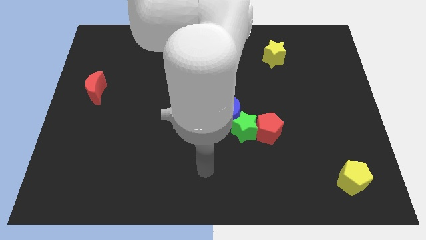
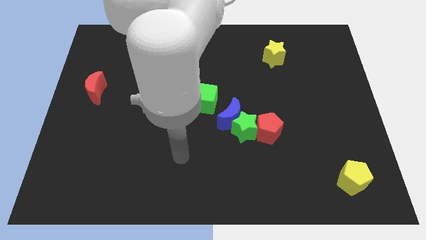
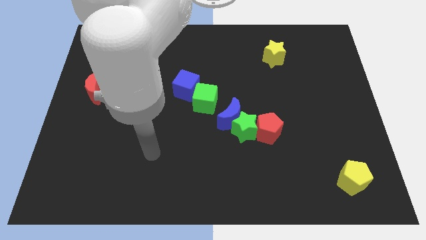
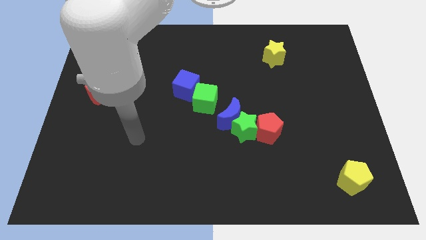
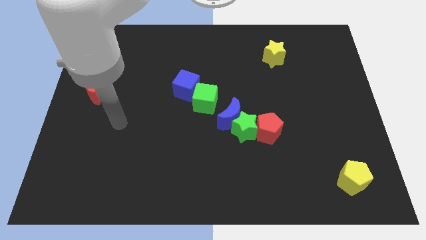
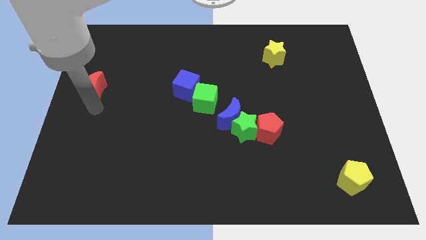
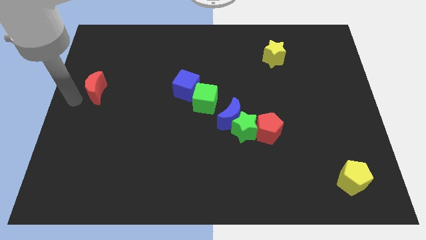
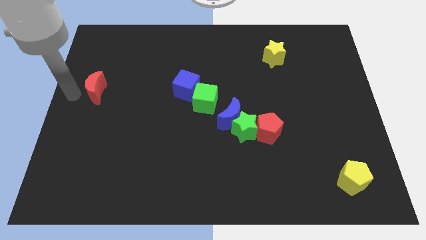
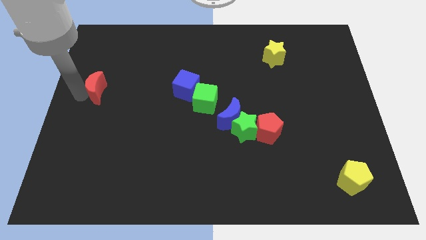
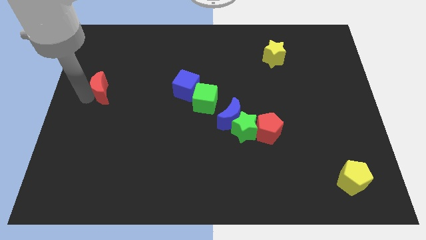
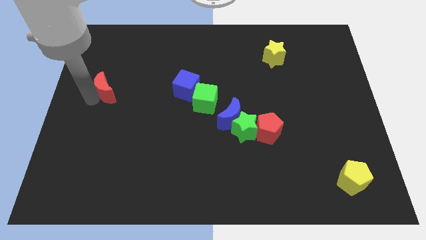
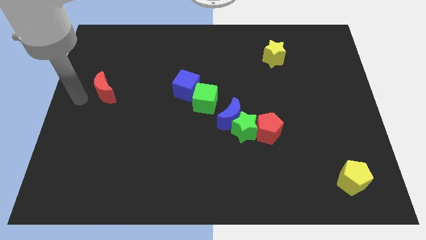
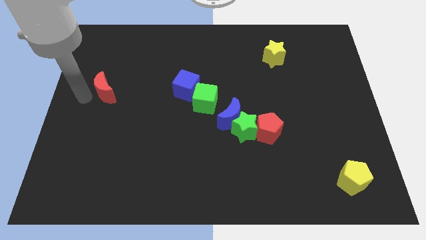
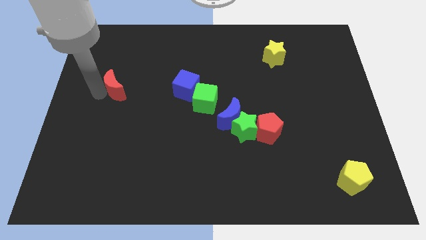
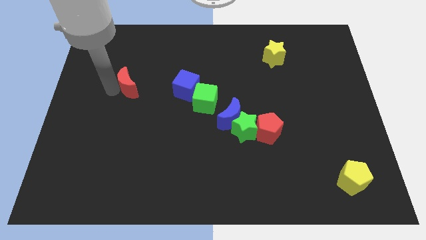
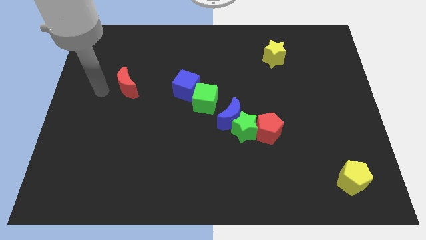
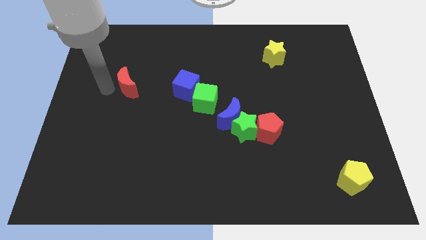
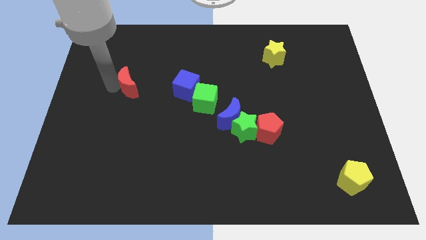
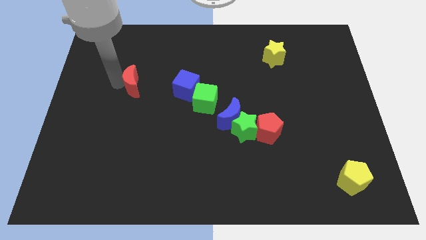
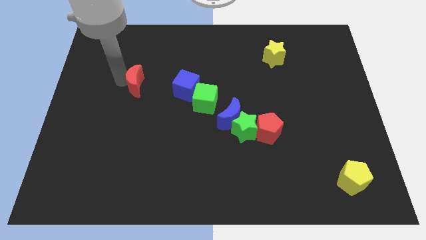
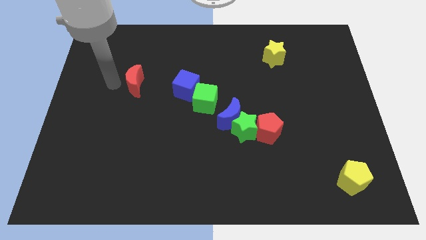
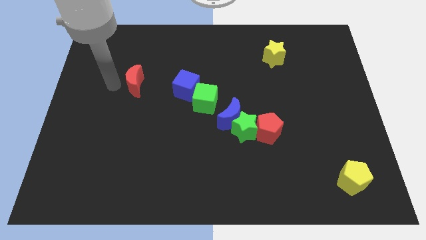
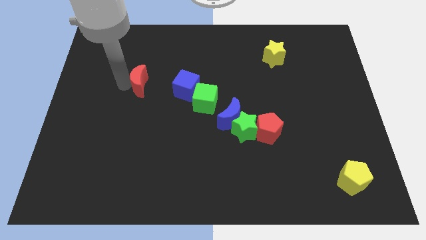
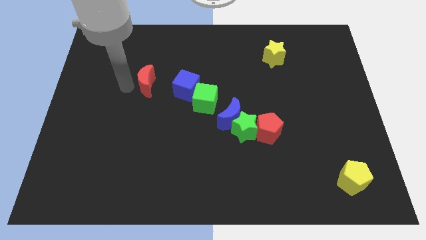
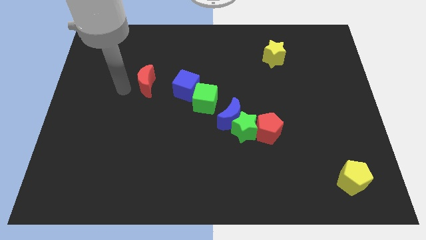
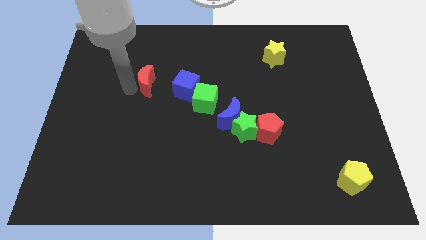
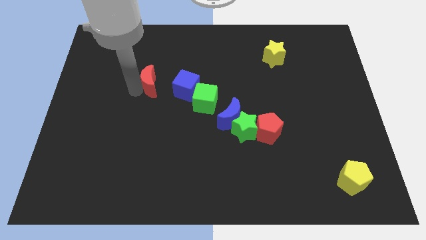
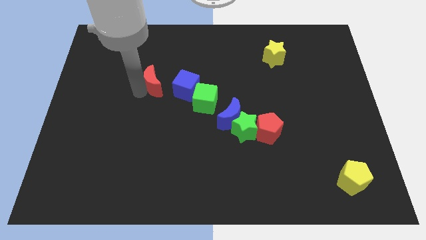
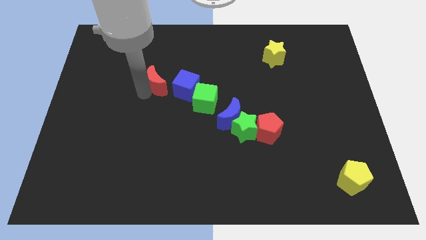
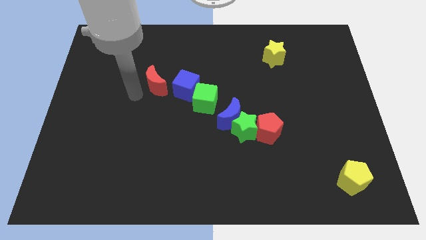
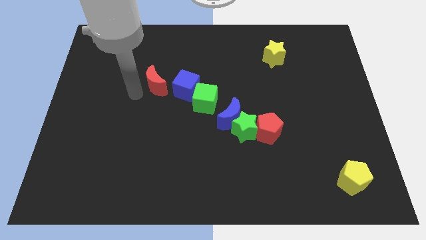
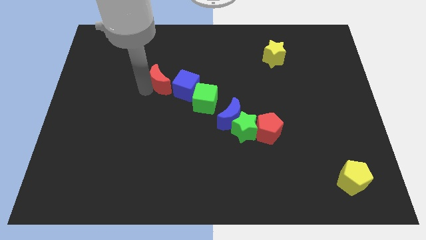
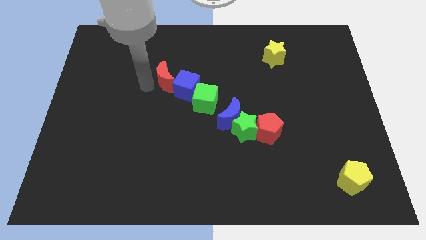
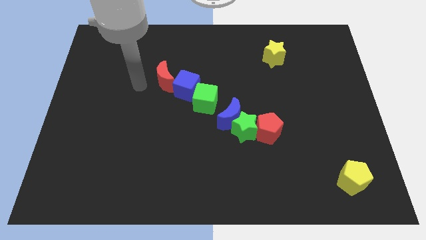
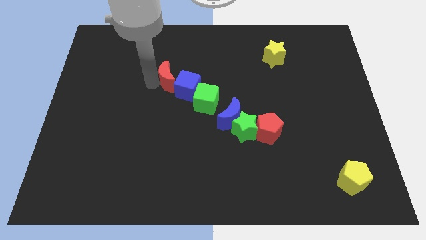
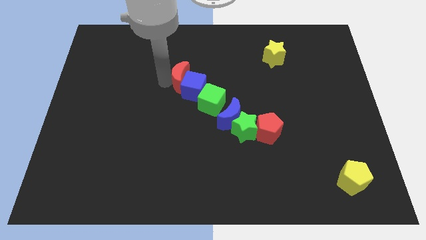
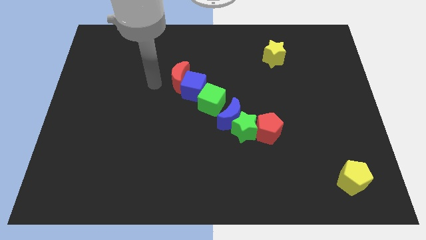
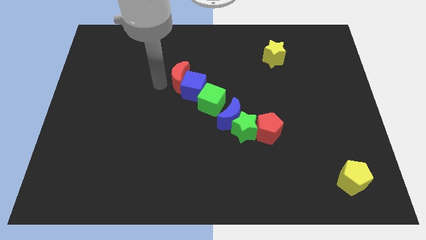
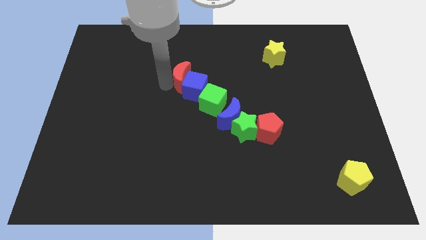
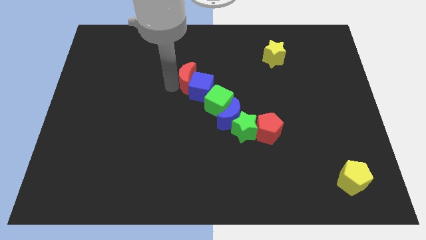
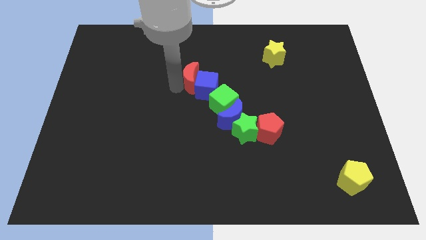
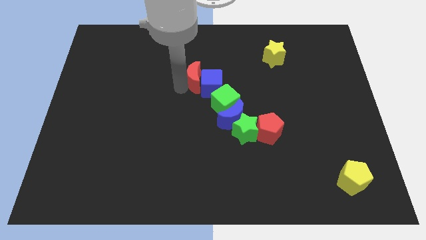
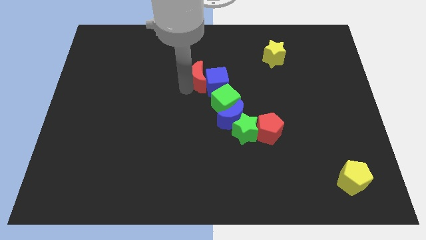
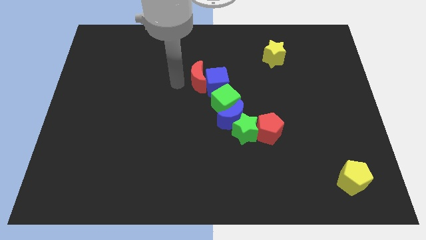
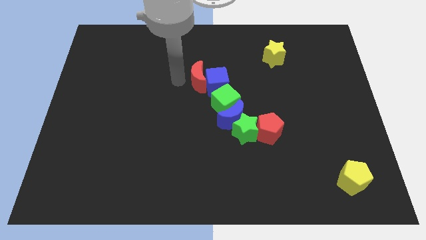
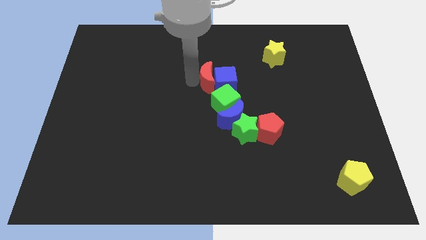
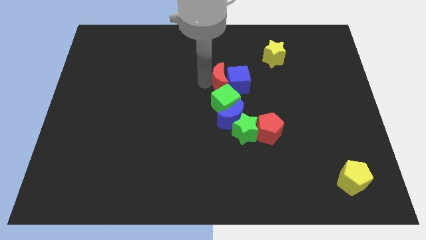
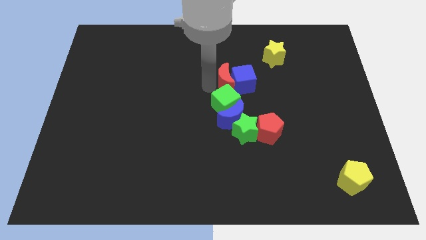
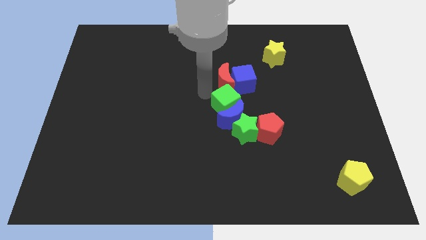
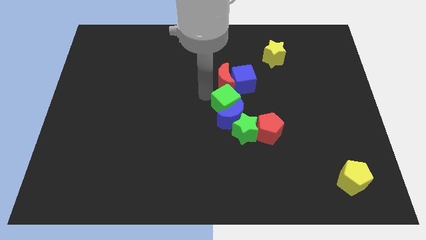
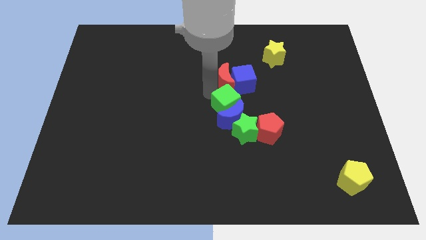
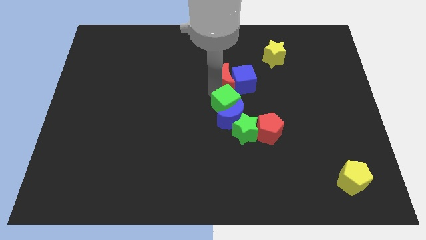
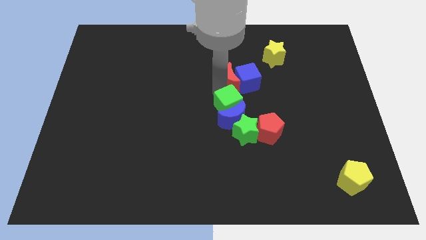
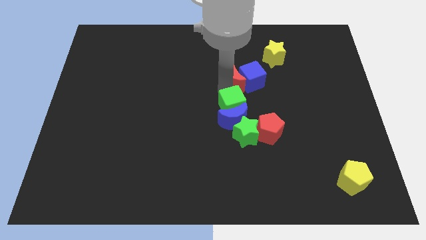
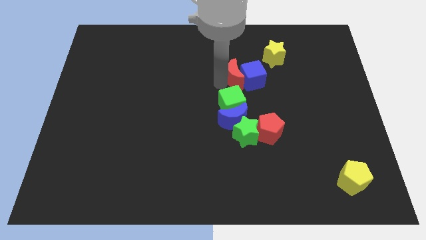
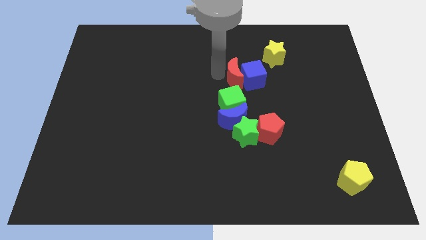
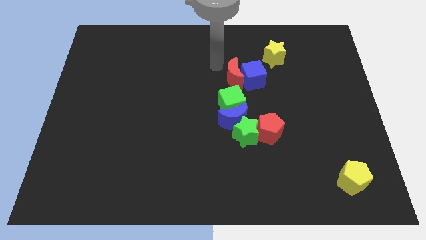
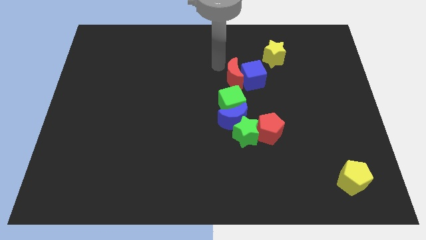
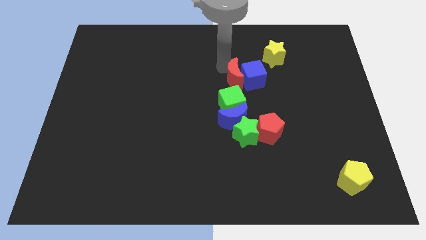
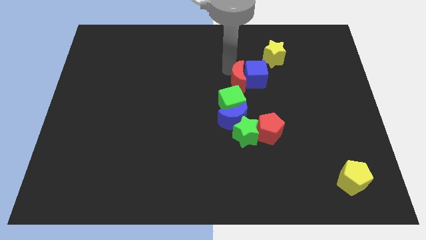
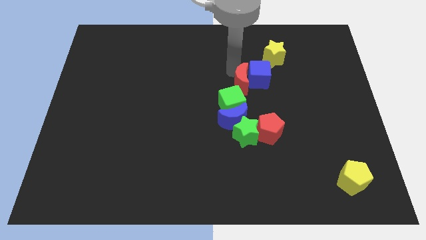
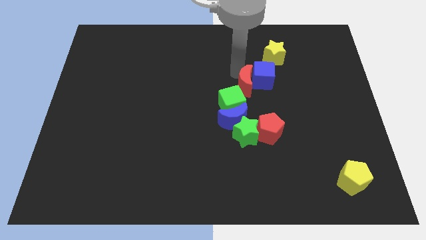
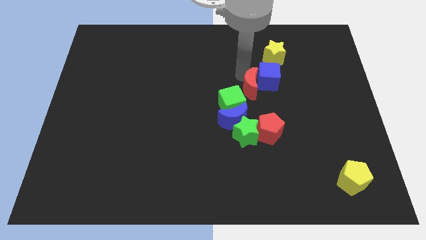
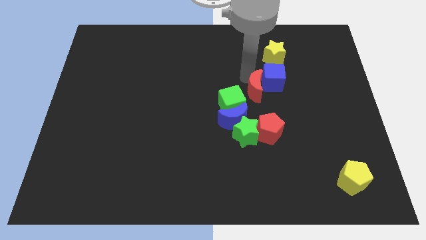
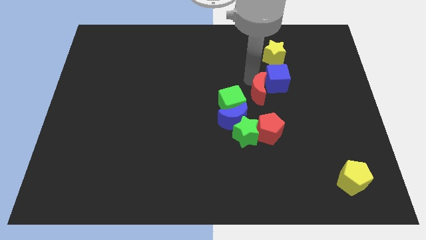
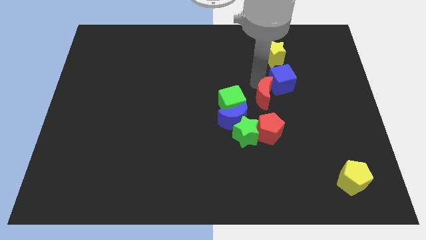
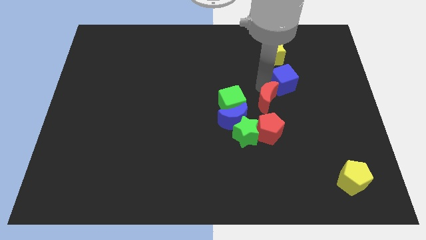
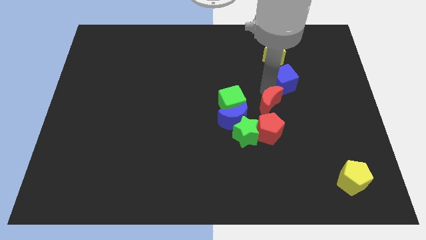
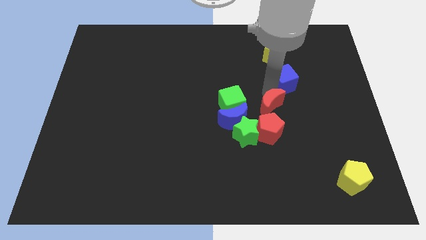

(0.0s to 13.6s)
put the red moon to the top right of the red pentagon
